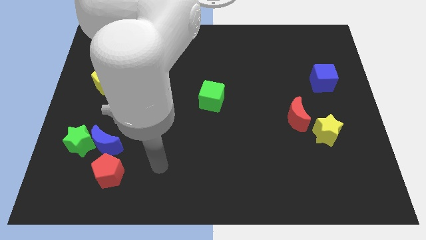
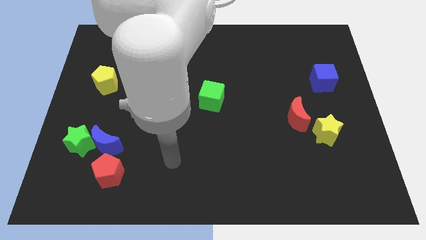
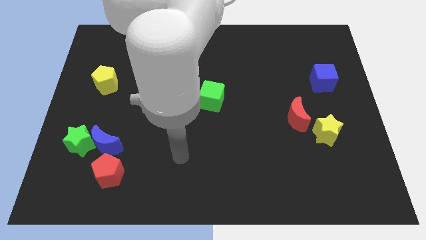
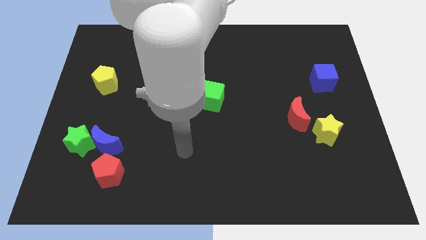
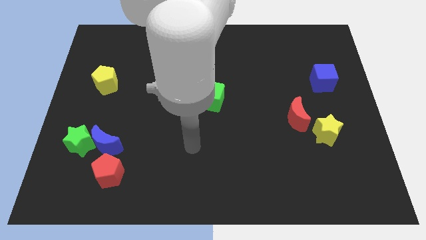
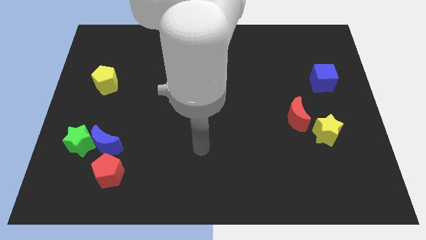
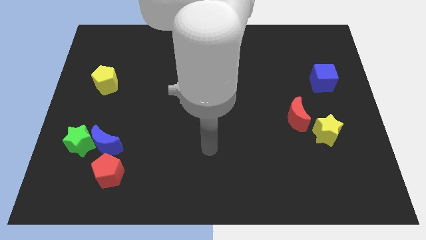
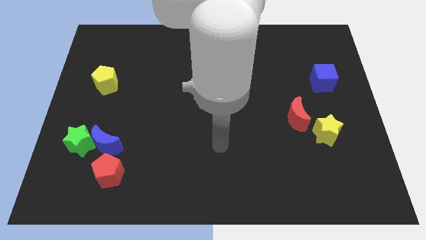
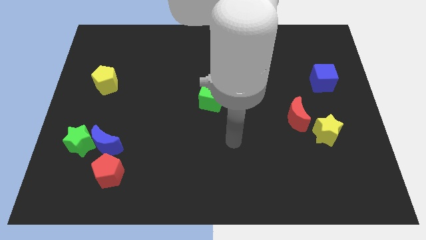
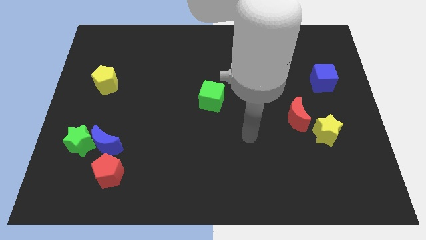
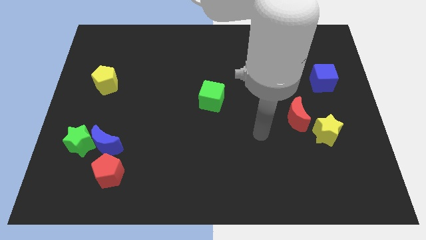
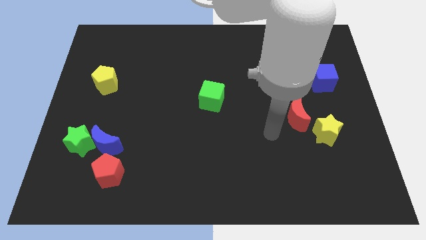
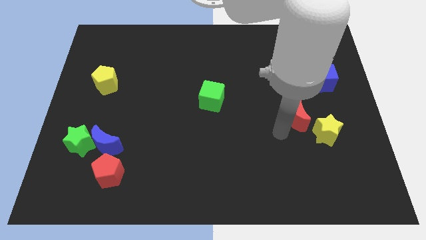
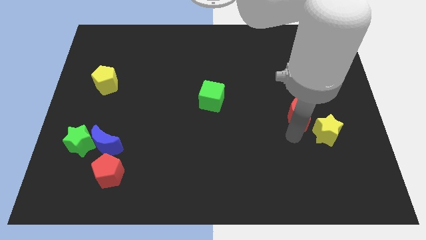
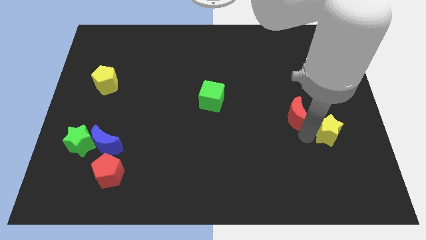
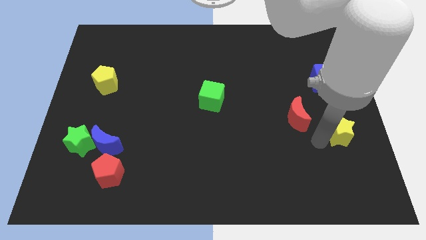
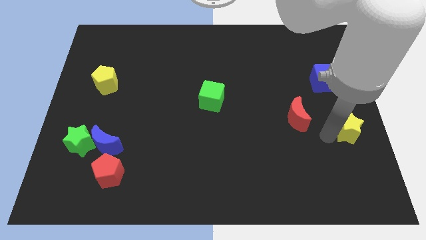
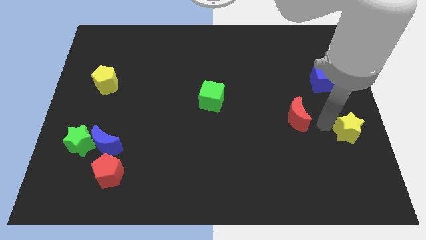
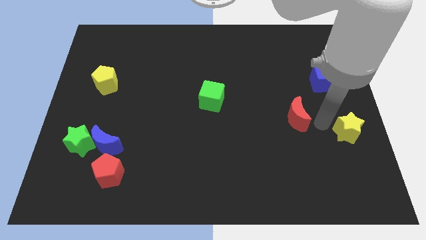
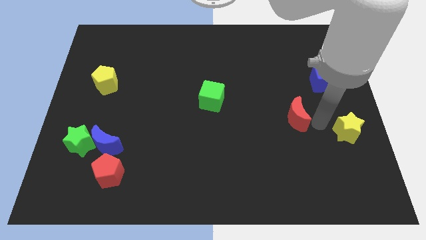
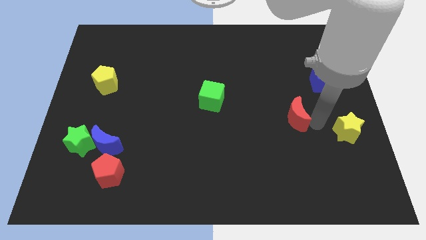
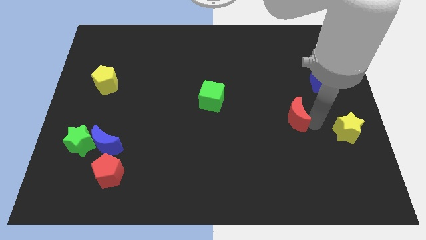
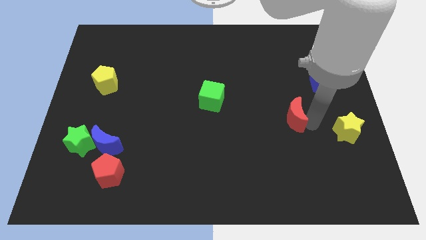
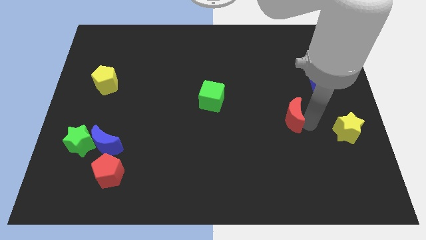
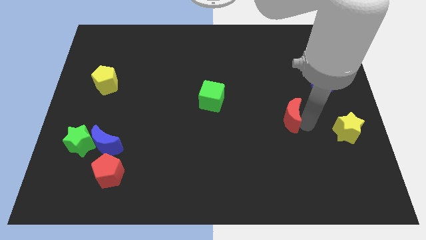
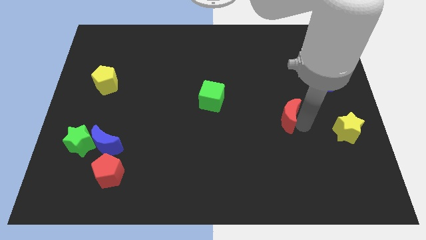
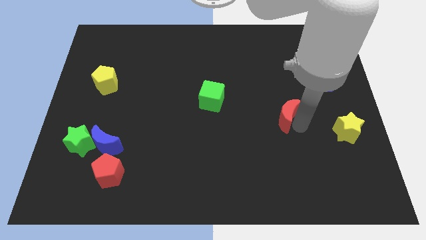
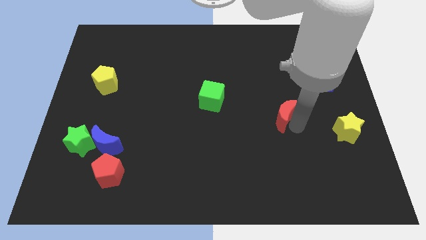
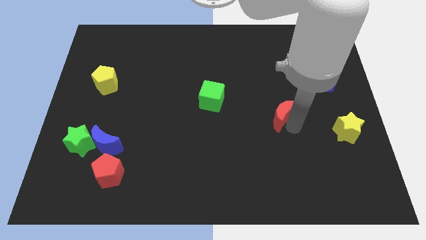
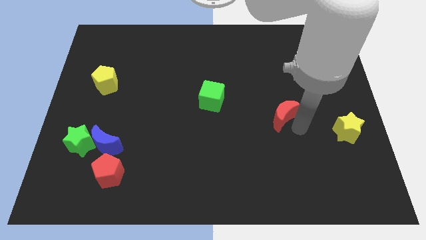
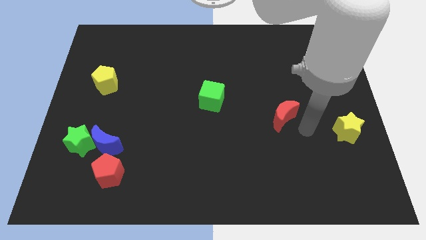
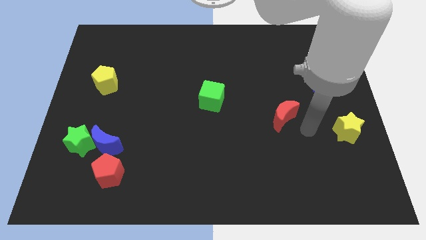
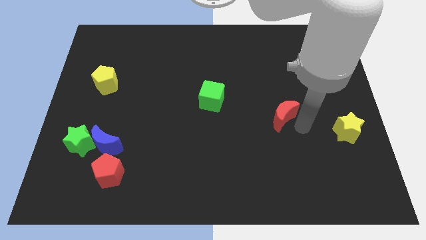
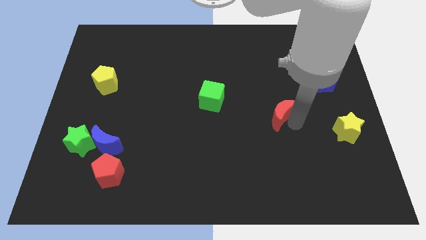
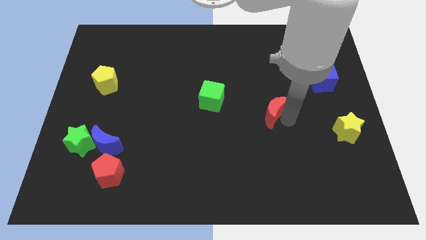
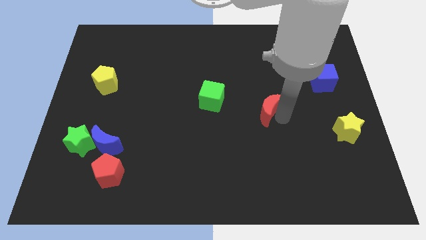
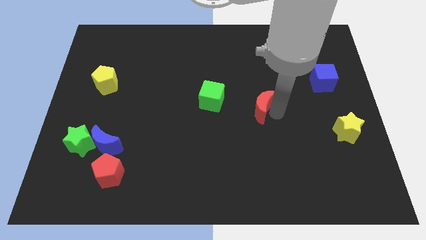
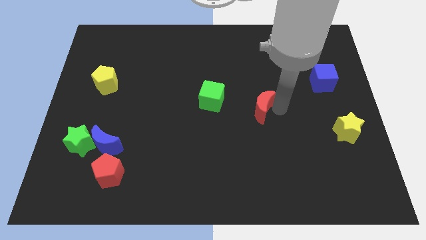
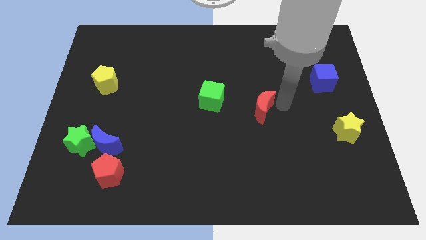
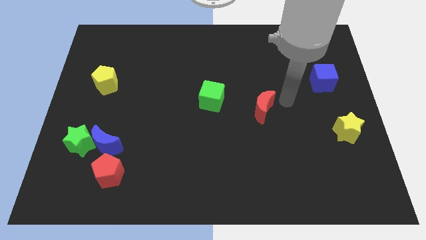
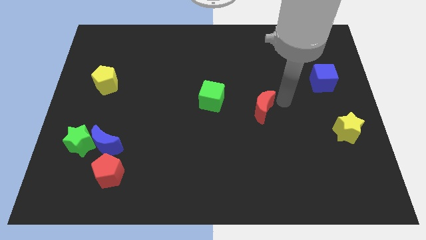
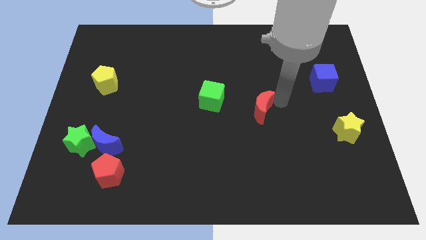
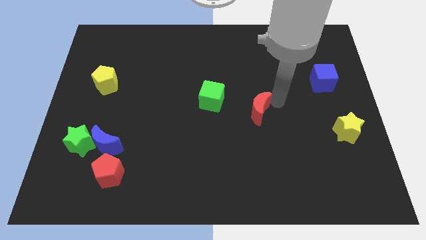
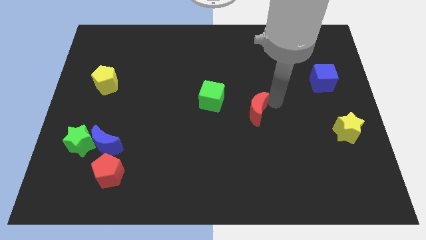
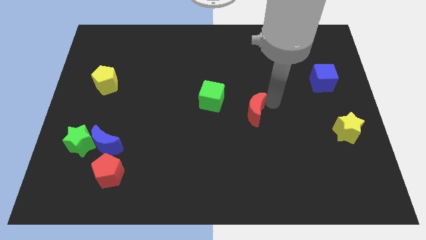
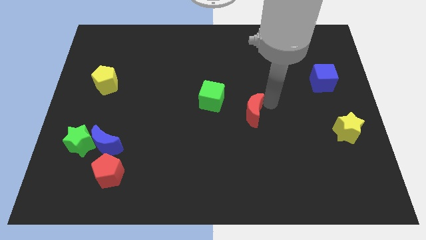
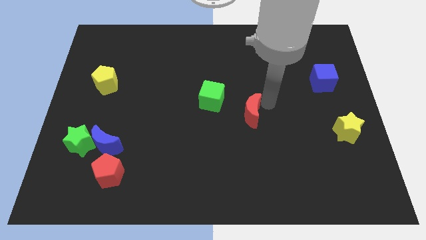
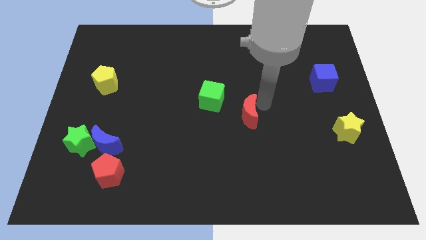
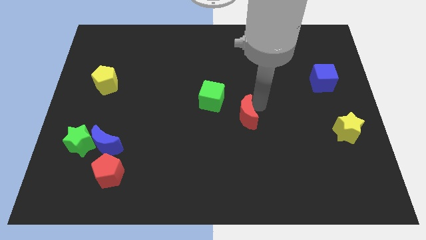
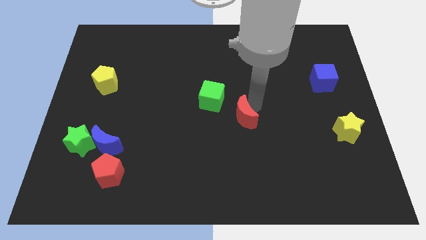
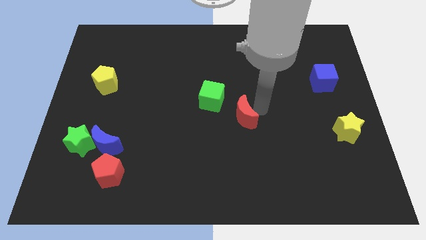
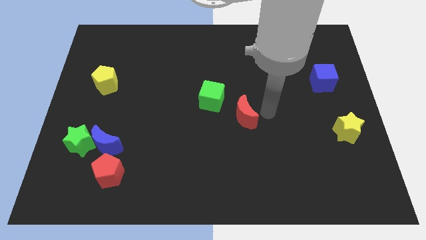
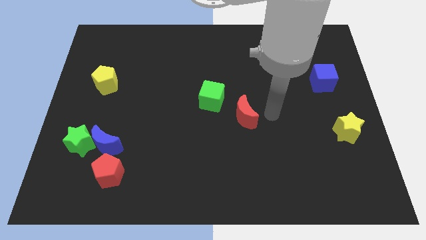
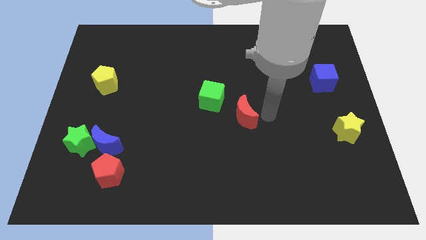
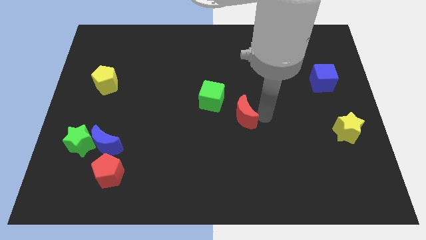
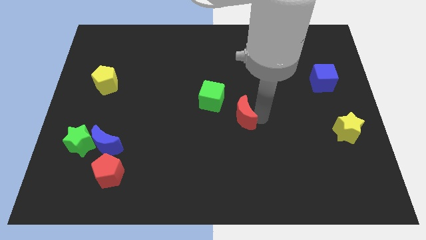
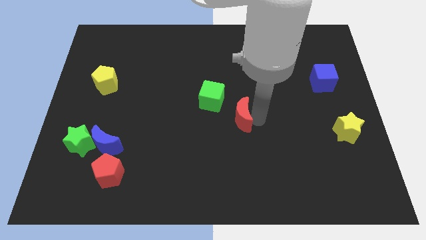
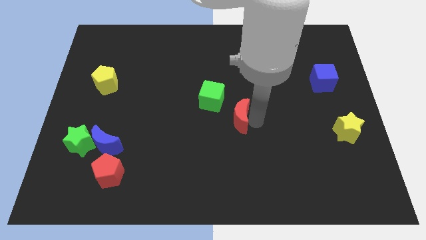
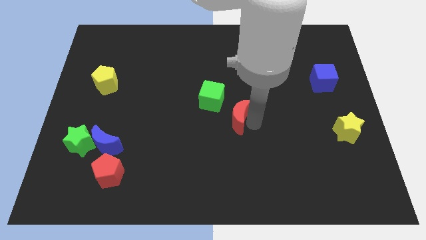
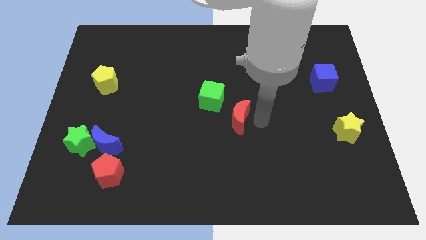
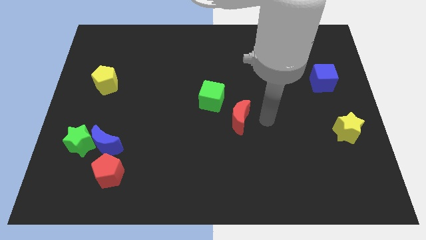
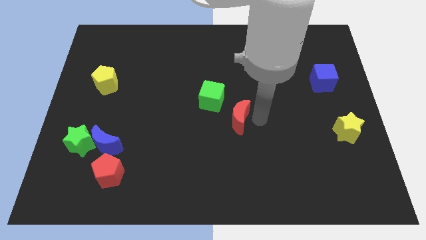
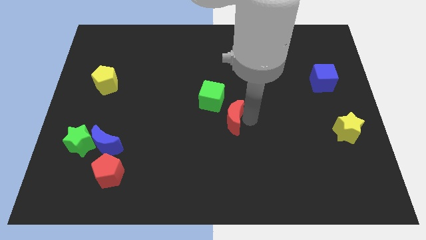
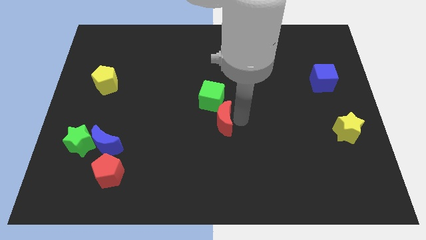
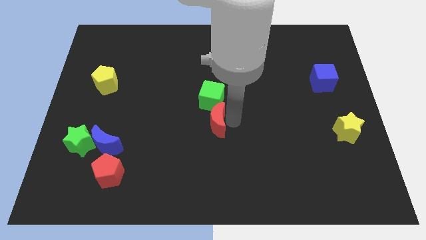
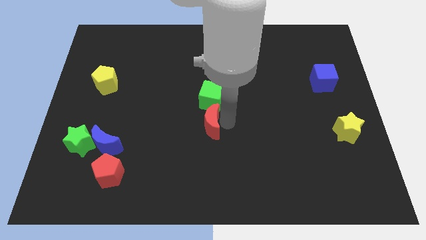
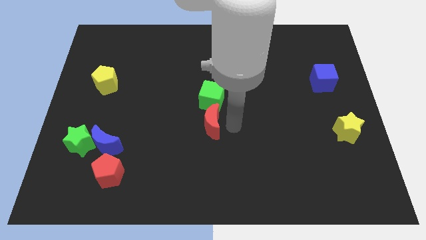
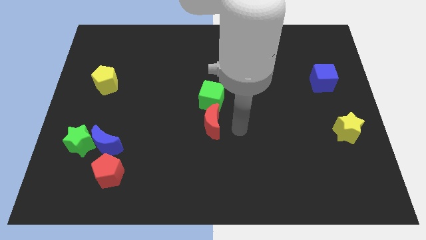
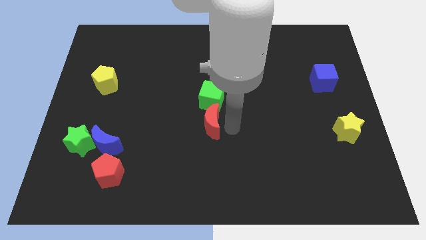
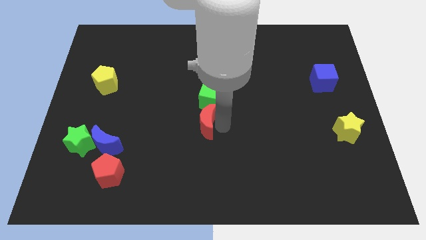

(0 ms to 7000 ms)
move the red moon to the left

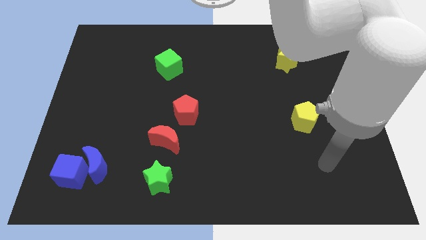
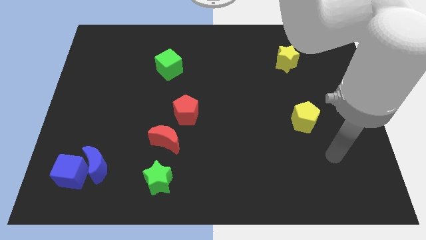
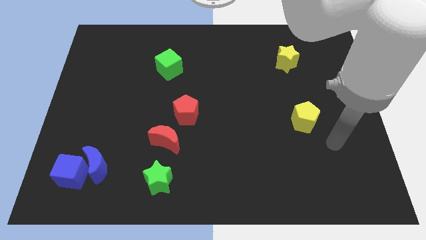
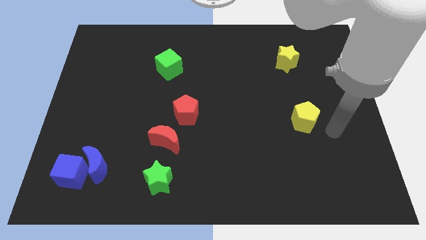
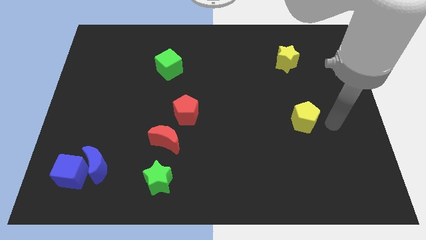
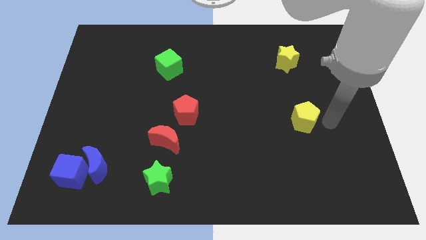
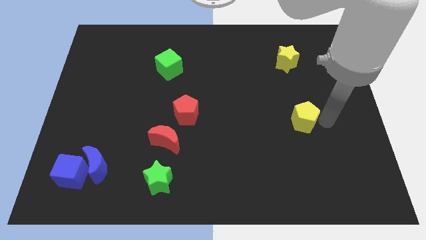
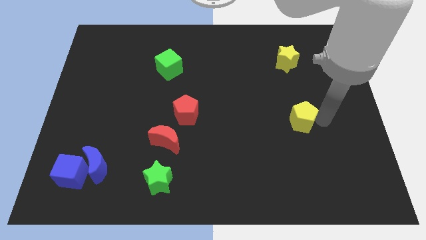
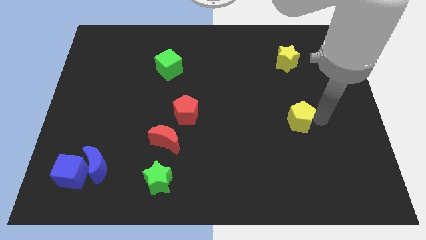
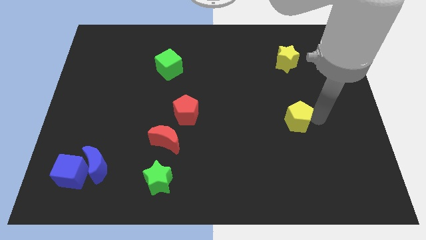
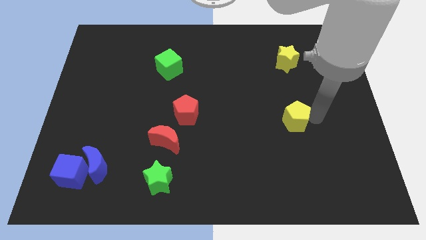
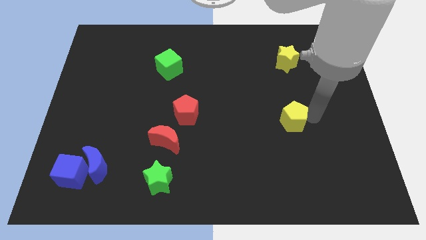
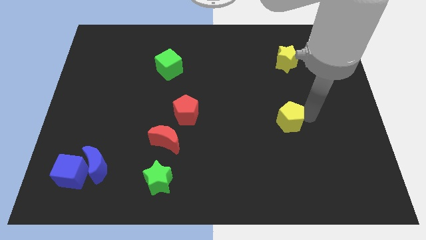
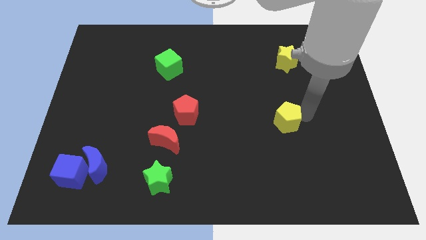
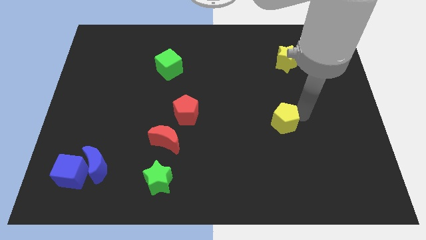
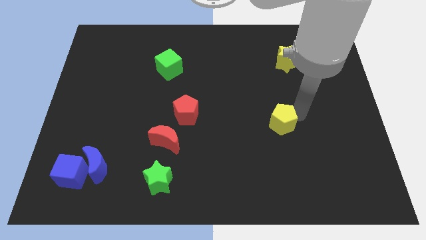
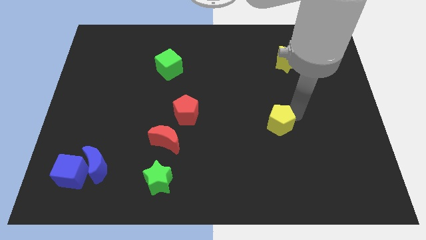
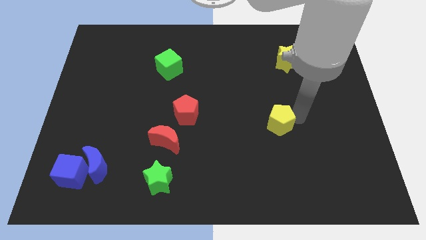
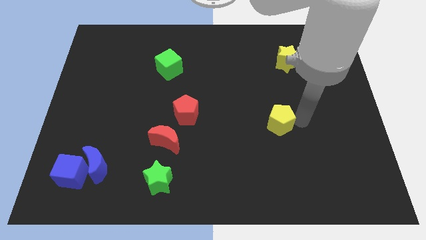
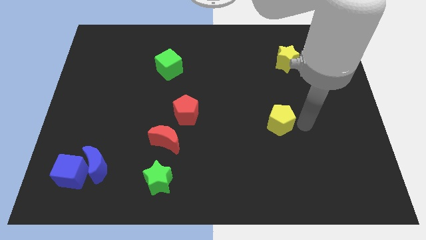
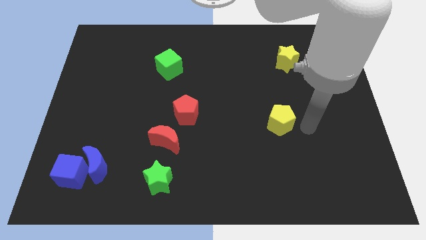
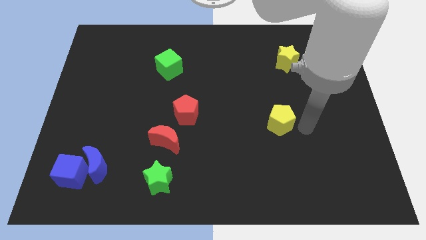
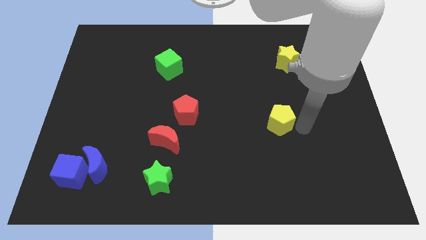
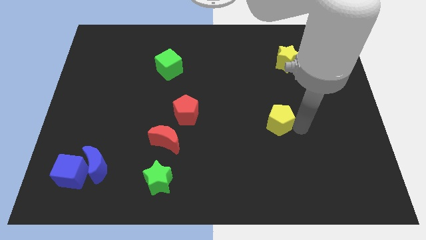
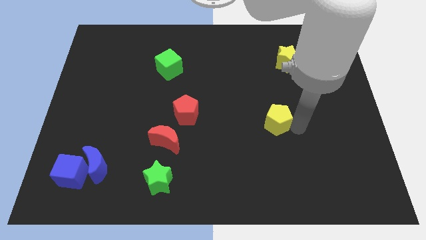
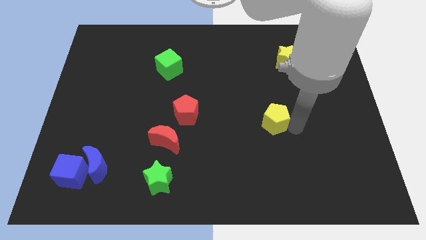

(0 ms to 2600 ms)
move the yellow pentagon somewhat to the left
